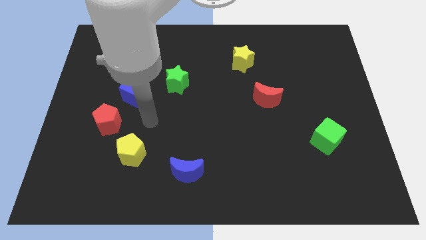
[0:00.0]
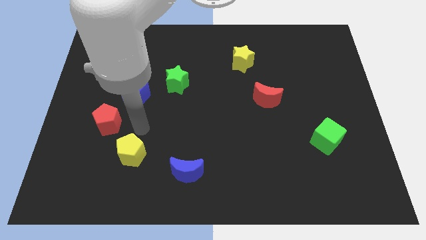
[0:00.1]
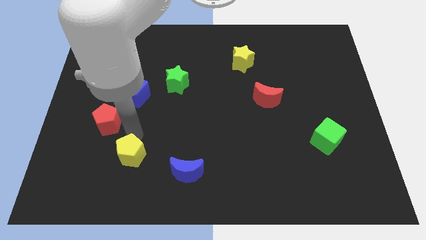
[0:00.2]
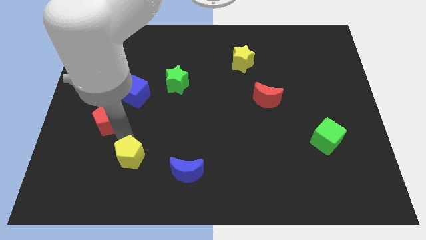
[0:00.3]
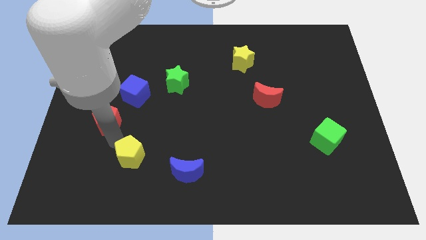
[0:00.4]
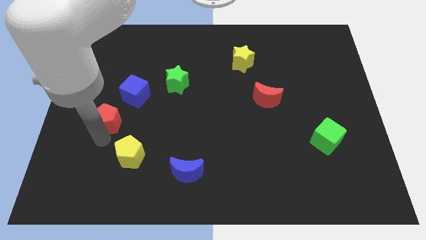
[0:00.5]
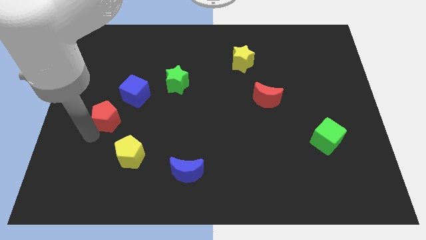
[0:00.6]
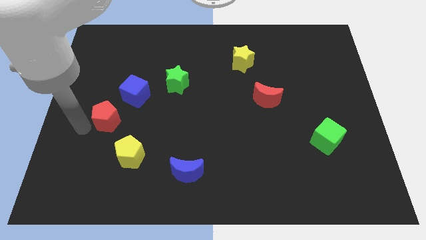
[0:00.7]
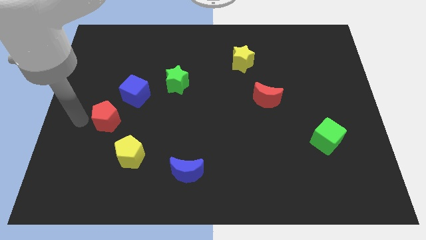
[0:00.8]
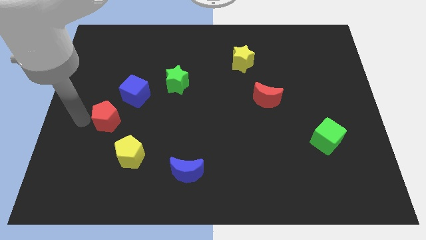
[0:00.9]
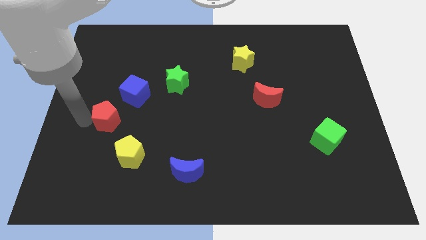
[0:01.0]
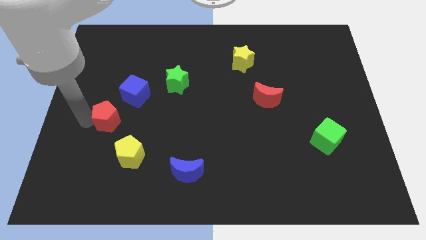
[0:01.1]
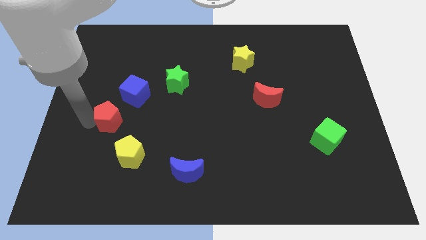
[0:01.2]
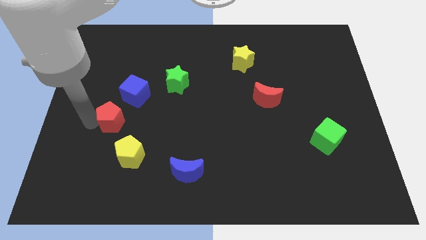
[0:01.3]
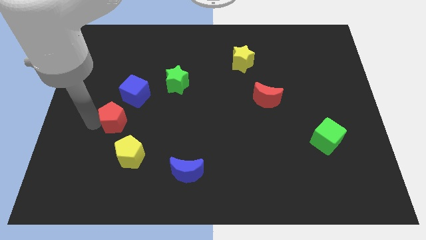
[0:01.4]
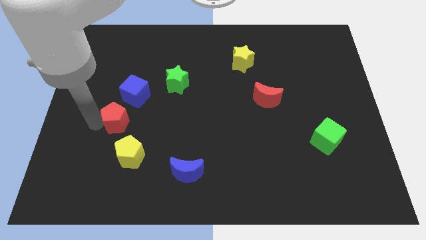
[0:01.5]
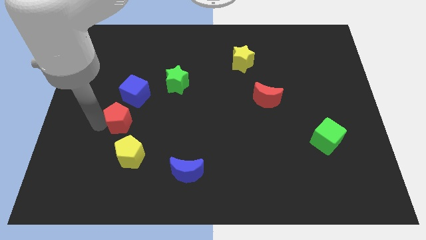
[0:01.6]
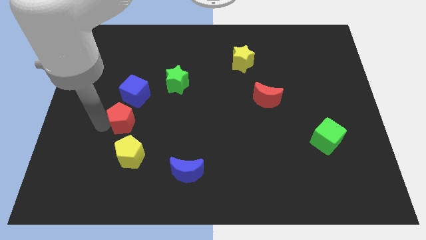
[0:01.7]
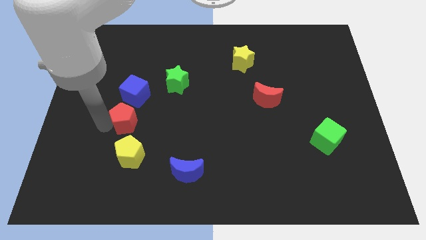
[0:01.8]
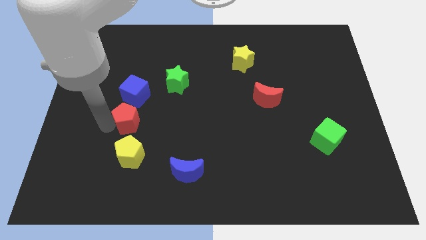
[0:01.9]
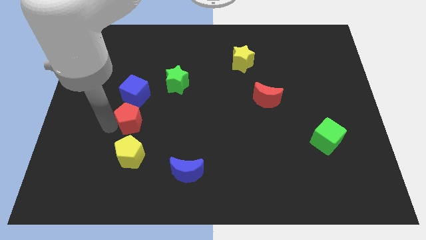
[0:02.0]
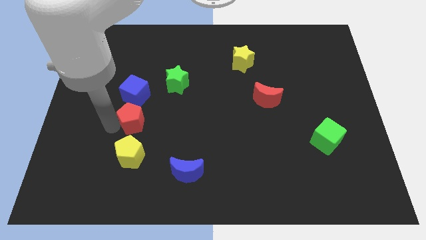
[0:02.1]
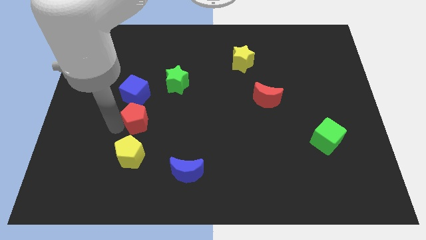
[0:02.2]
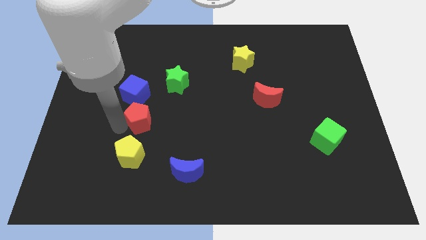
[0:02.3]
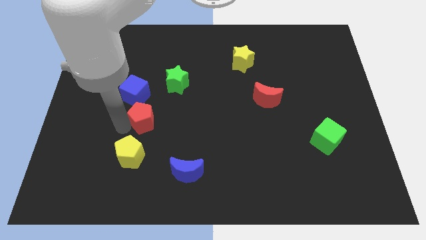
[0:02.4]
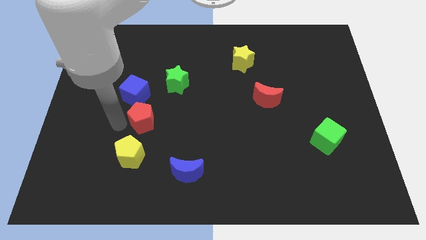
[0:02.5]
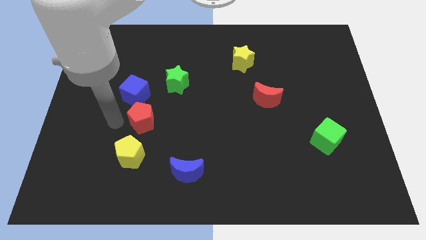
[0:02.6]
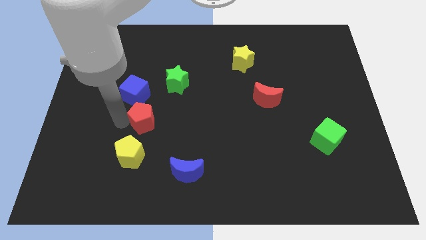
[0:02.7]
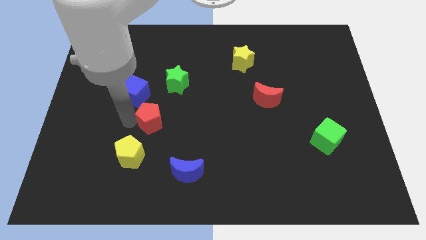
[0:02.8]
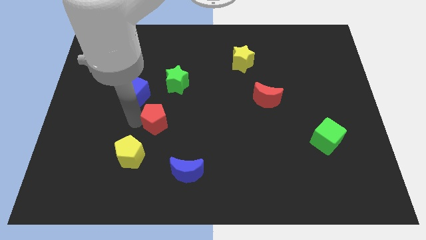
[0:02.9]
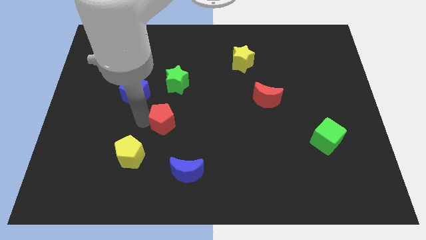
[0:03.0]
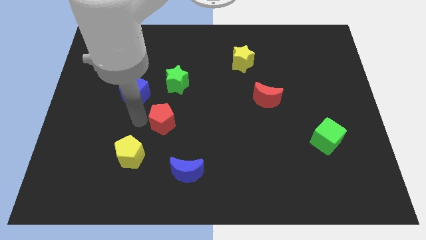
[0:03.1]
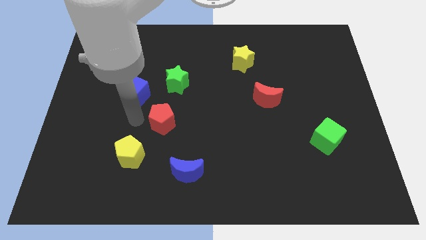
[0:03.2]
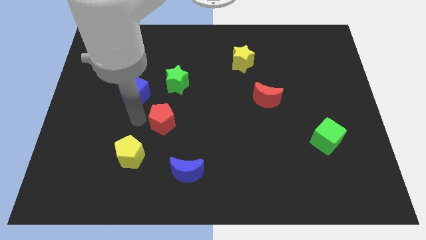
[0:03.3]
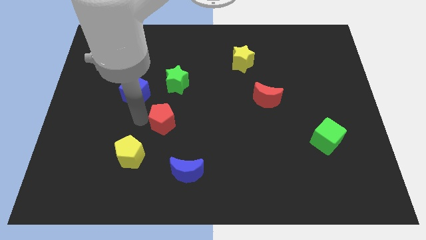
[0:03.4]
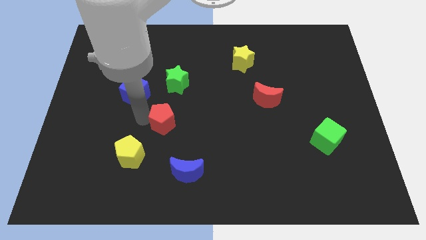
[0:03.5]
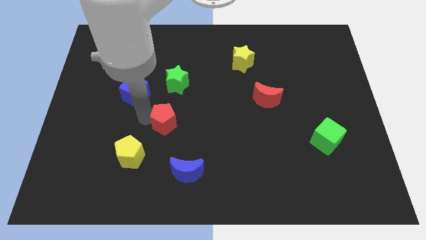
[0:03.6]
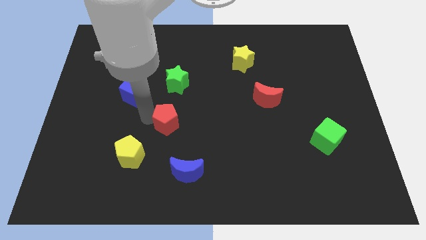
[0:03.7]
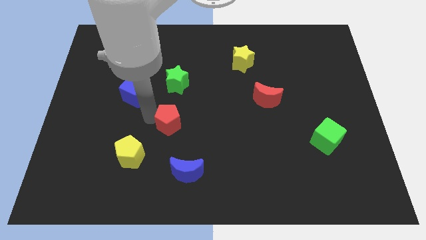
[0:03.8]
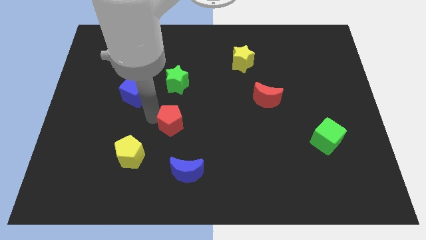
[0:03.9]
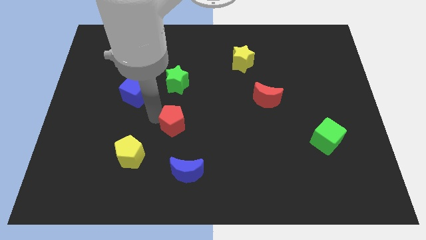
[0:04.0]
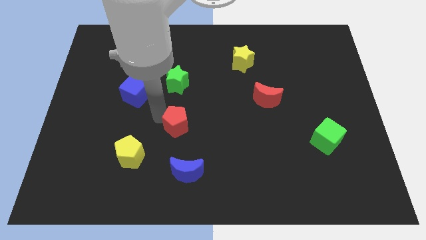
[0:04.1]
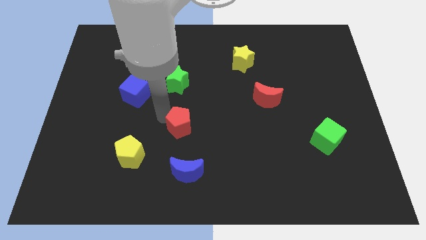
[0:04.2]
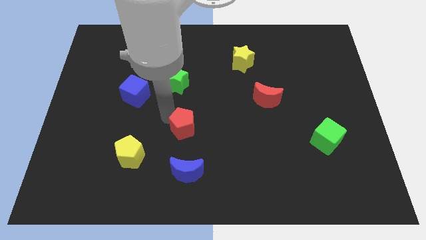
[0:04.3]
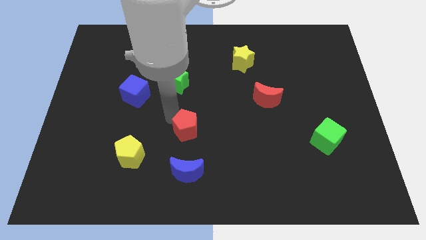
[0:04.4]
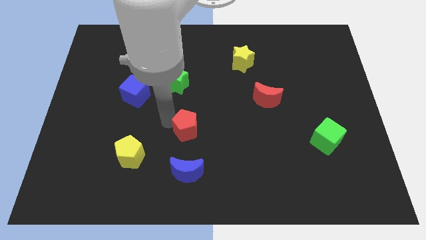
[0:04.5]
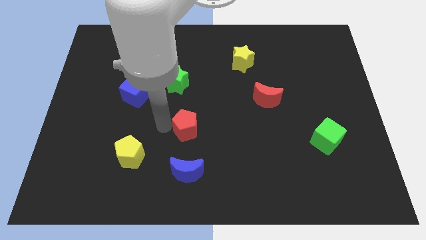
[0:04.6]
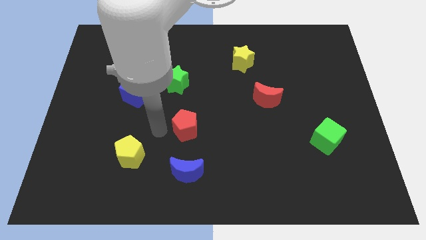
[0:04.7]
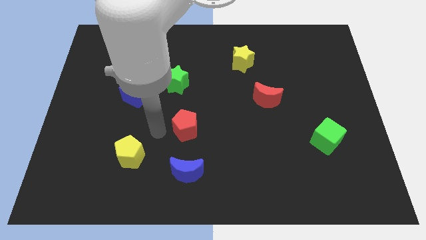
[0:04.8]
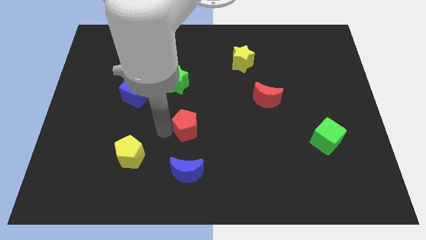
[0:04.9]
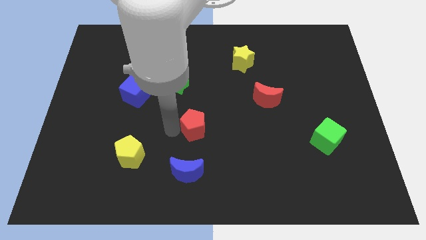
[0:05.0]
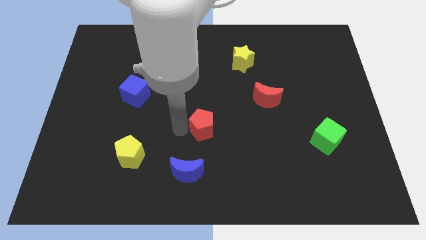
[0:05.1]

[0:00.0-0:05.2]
move the red pentagon right

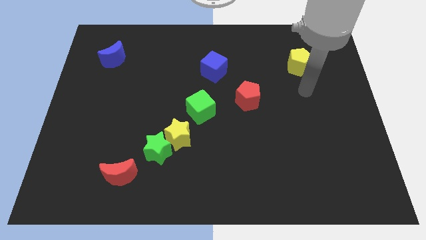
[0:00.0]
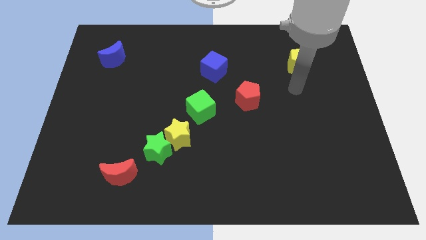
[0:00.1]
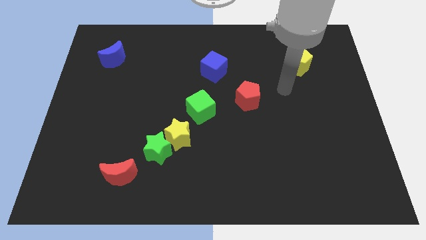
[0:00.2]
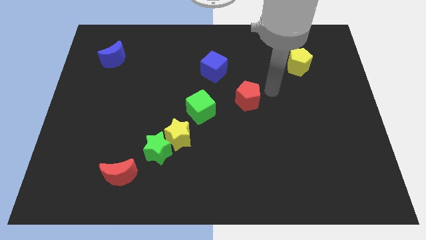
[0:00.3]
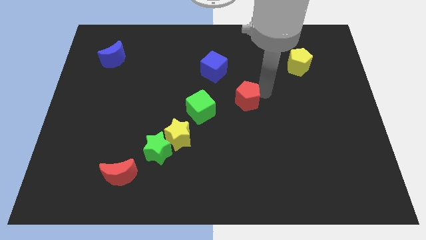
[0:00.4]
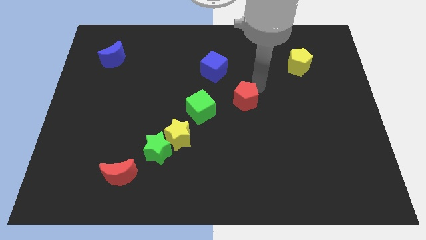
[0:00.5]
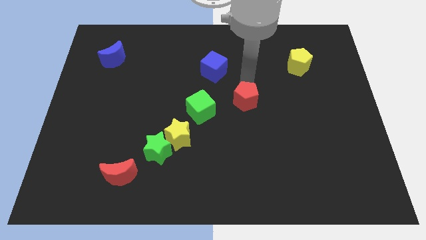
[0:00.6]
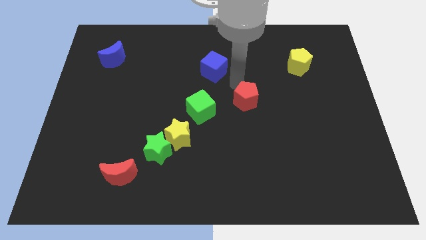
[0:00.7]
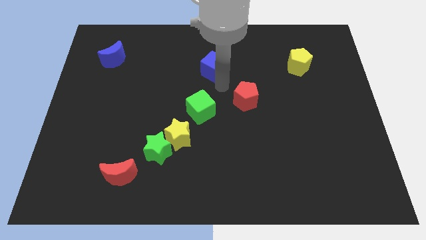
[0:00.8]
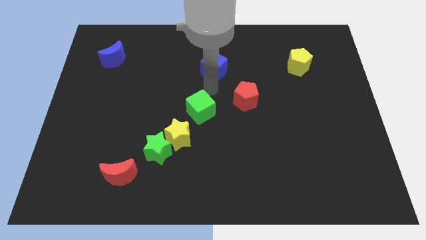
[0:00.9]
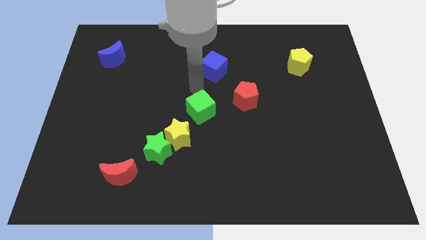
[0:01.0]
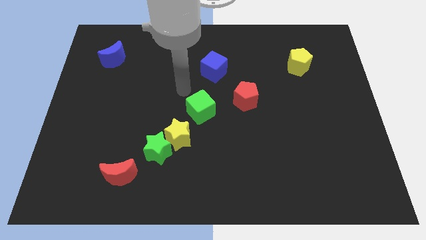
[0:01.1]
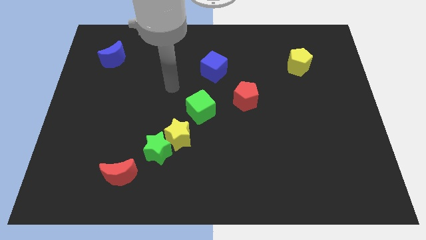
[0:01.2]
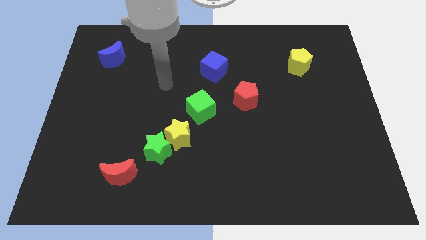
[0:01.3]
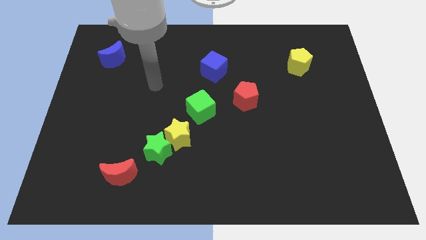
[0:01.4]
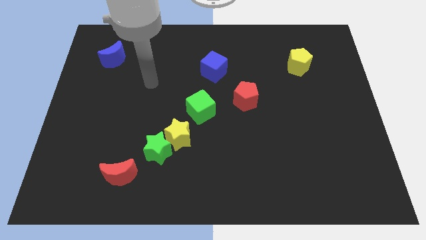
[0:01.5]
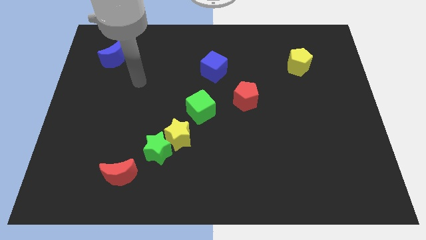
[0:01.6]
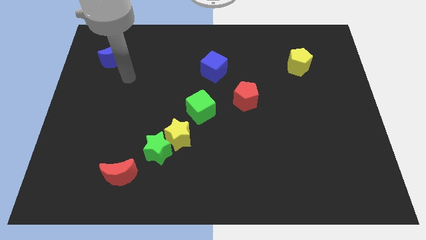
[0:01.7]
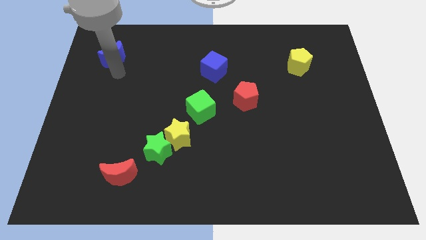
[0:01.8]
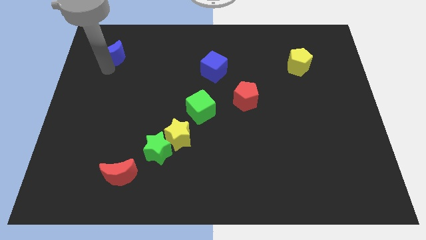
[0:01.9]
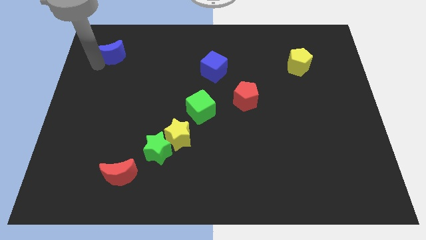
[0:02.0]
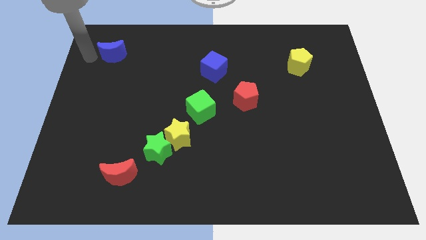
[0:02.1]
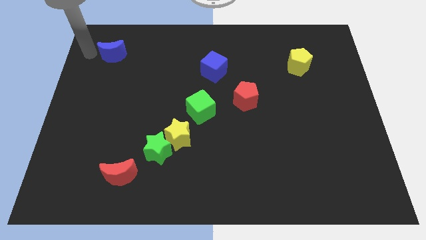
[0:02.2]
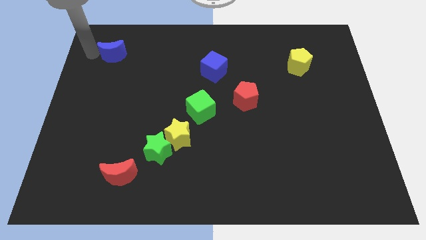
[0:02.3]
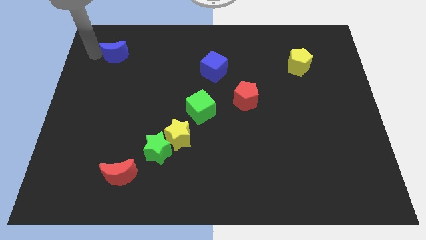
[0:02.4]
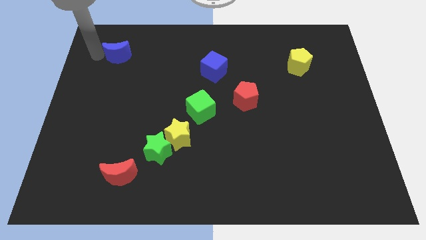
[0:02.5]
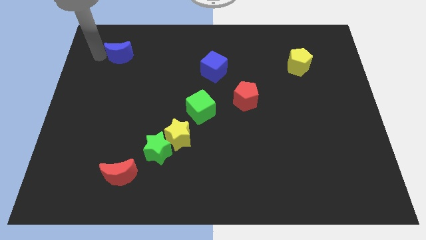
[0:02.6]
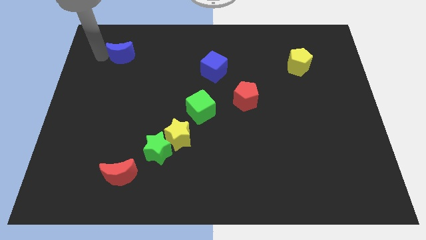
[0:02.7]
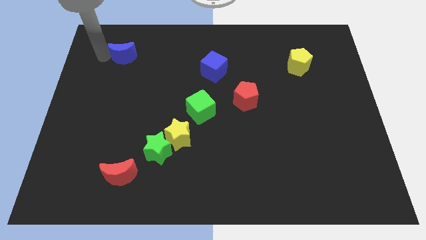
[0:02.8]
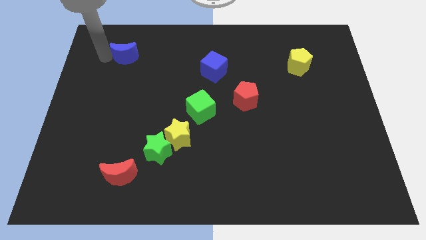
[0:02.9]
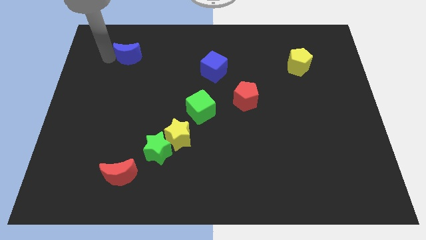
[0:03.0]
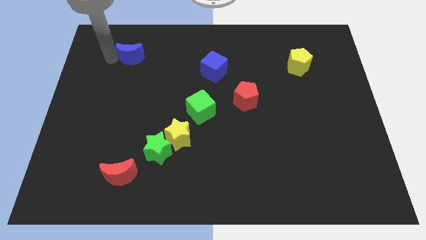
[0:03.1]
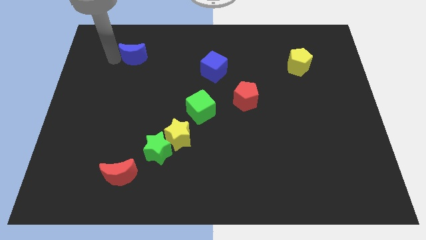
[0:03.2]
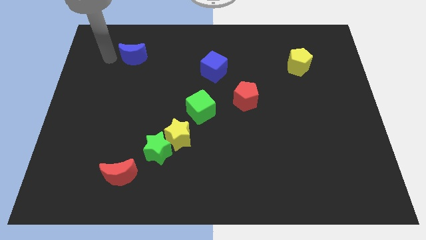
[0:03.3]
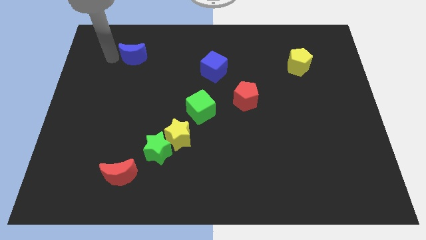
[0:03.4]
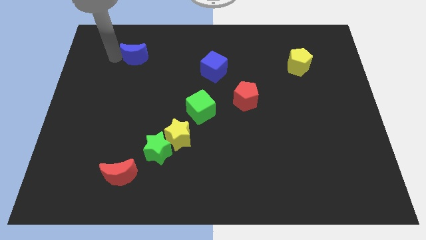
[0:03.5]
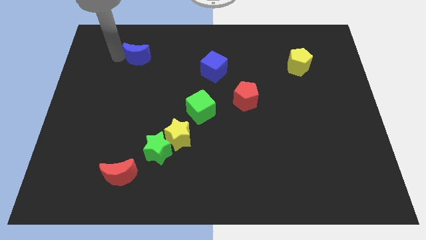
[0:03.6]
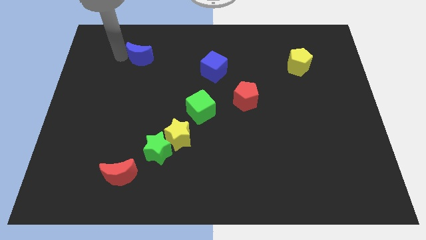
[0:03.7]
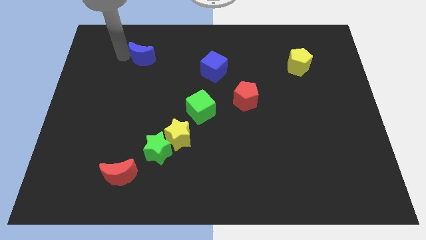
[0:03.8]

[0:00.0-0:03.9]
slide the blue moon to the right a little
